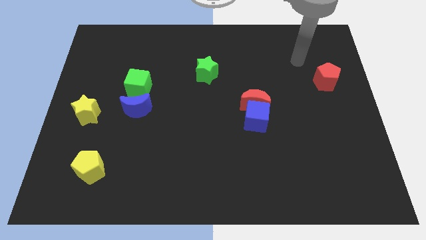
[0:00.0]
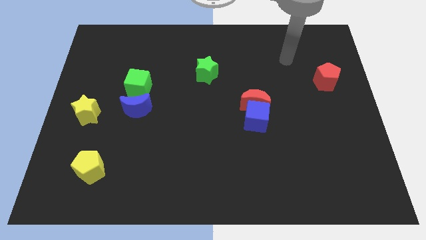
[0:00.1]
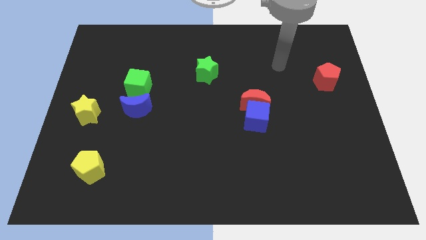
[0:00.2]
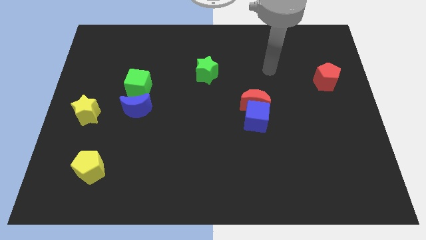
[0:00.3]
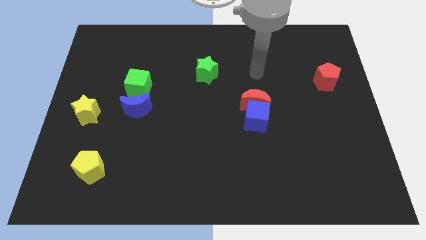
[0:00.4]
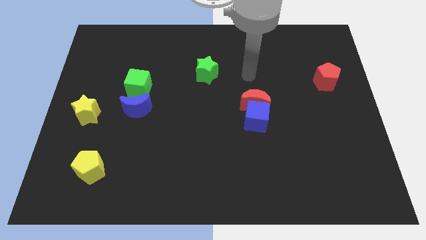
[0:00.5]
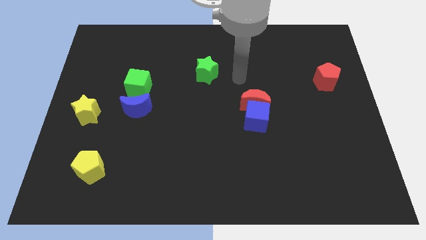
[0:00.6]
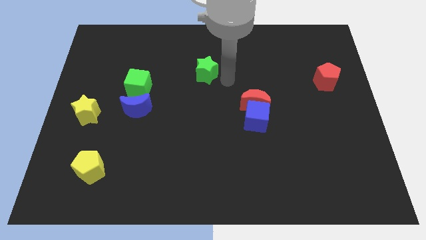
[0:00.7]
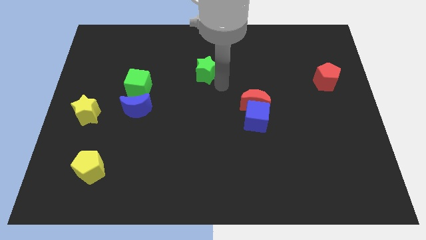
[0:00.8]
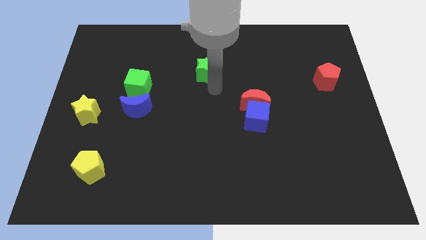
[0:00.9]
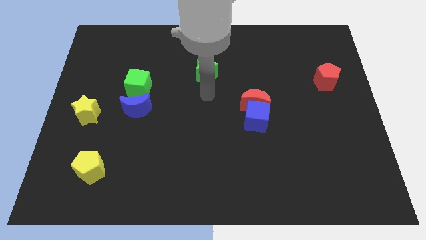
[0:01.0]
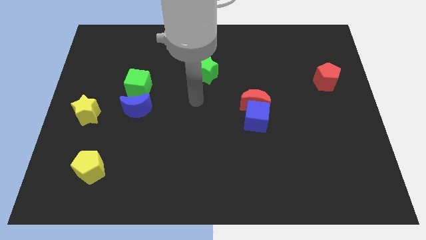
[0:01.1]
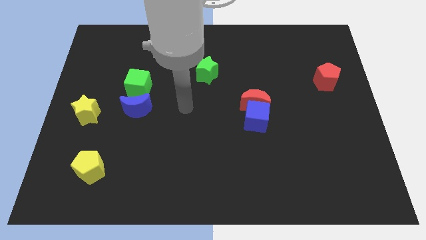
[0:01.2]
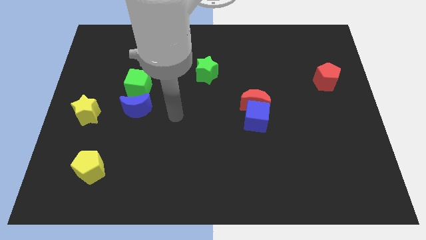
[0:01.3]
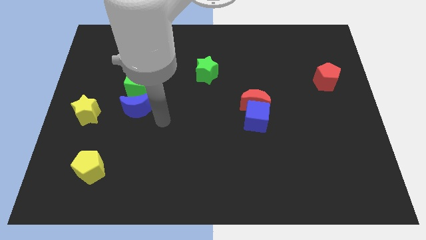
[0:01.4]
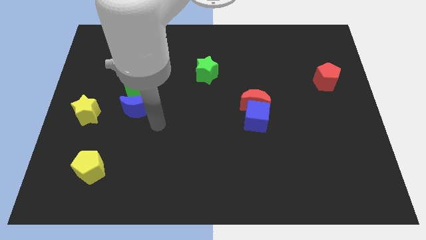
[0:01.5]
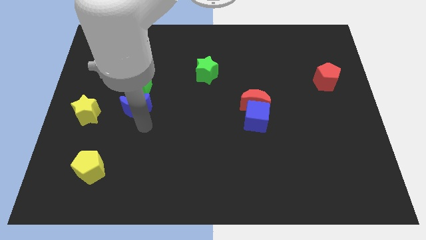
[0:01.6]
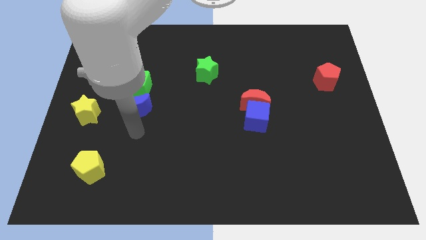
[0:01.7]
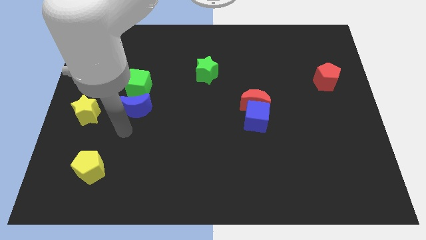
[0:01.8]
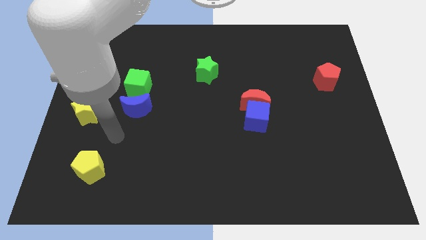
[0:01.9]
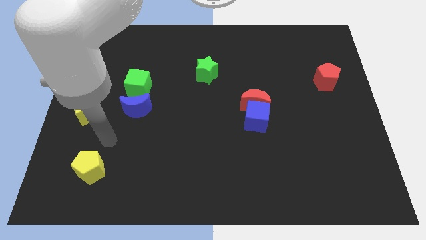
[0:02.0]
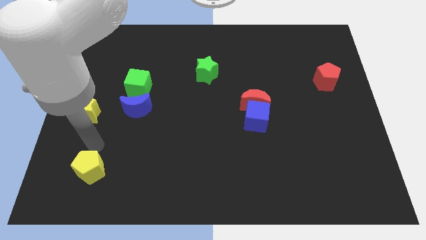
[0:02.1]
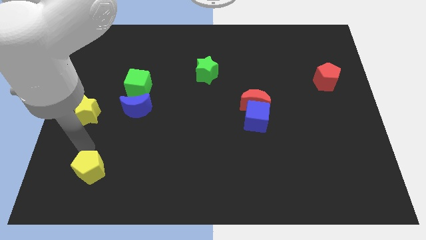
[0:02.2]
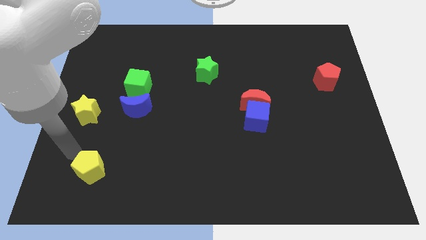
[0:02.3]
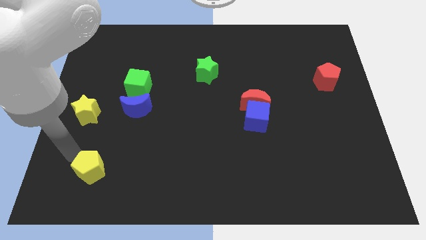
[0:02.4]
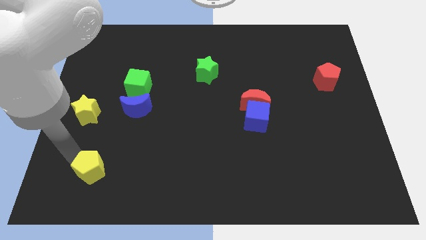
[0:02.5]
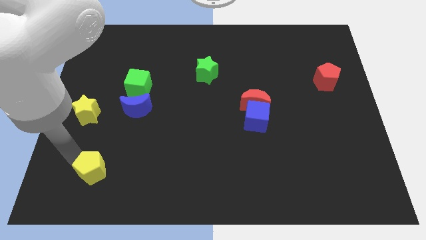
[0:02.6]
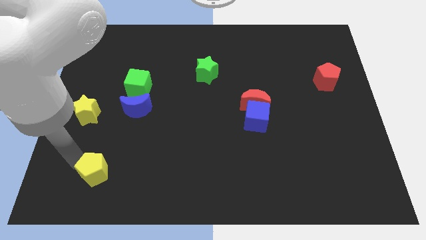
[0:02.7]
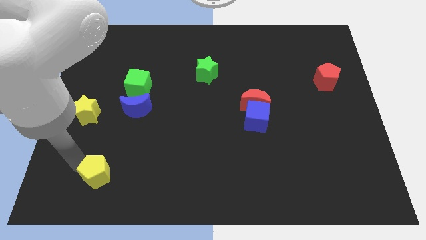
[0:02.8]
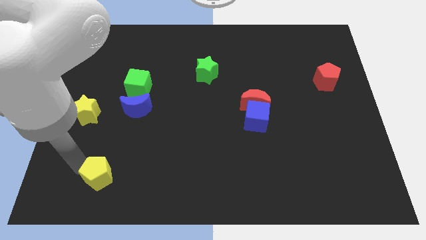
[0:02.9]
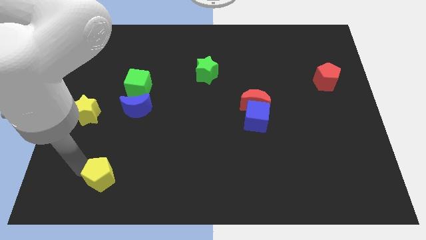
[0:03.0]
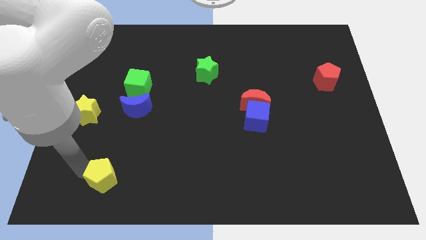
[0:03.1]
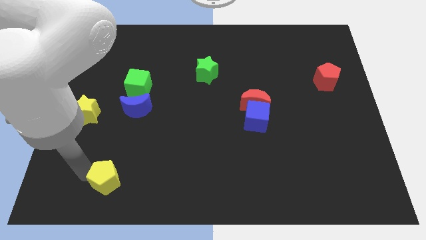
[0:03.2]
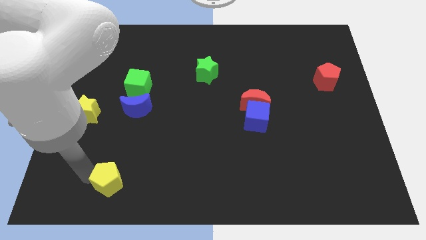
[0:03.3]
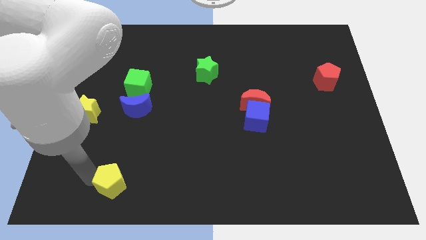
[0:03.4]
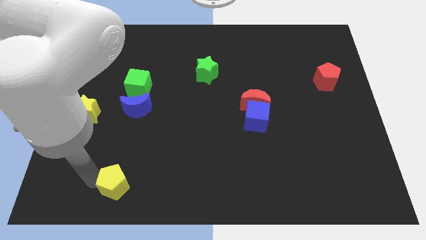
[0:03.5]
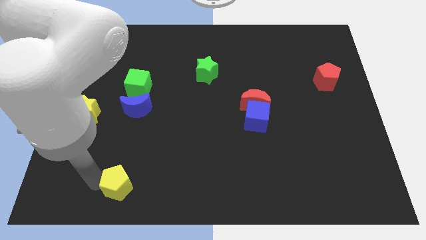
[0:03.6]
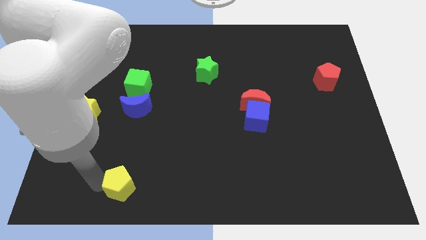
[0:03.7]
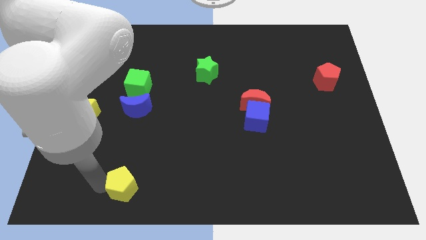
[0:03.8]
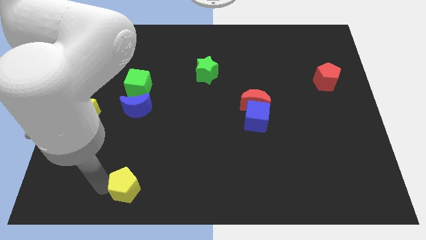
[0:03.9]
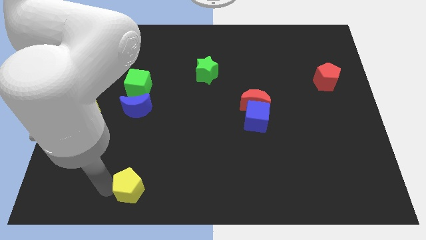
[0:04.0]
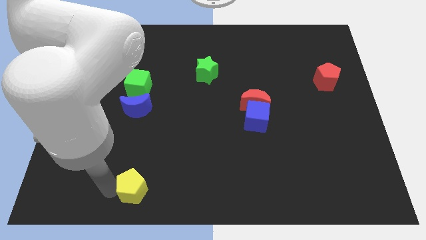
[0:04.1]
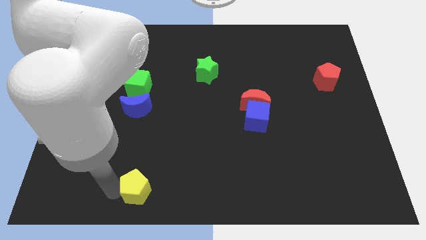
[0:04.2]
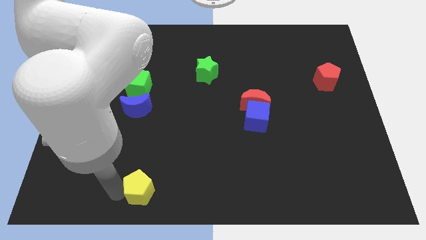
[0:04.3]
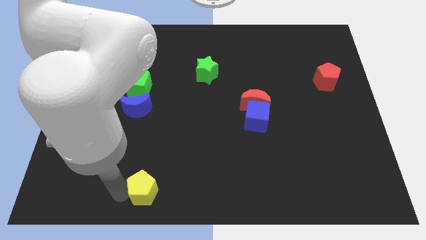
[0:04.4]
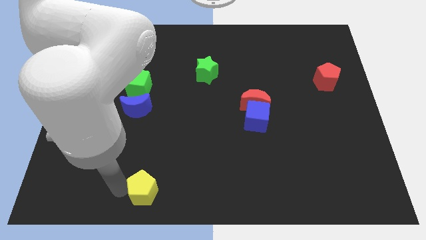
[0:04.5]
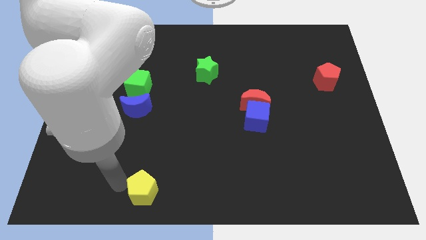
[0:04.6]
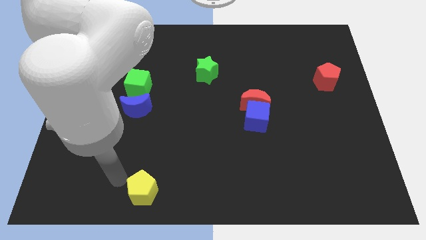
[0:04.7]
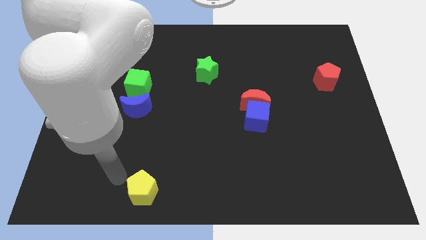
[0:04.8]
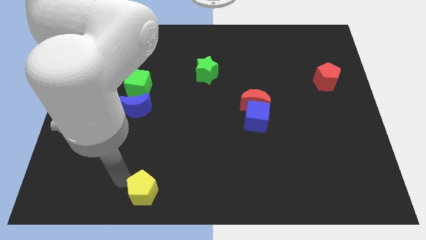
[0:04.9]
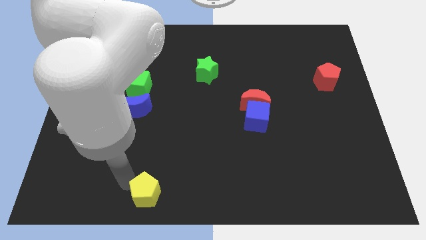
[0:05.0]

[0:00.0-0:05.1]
push the yellow pentagon to the bottom side
